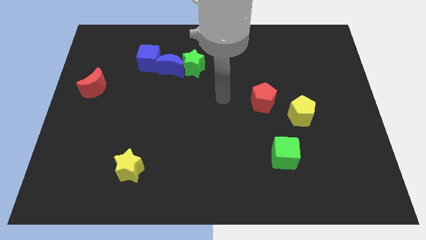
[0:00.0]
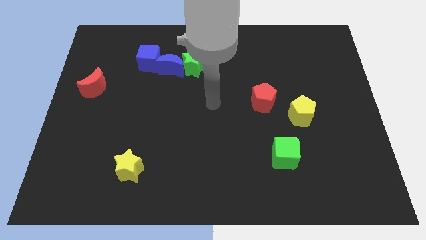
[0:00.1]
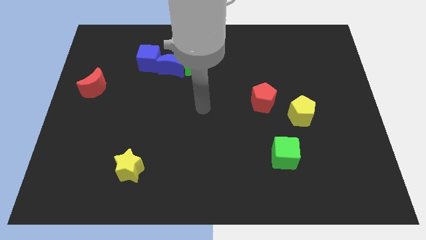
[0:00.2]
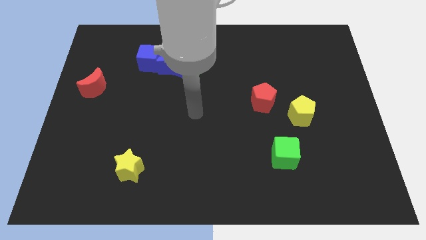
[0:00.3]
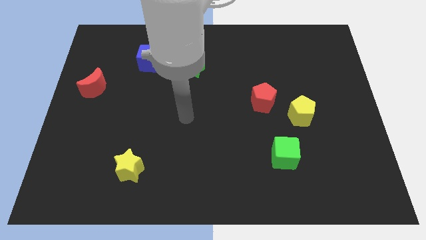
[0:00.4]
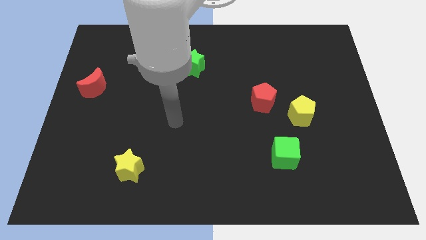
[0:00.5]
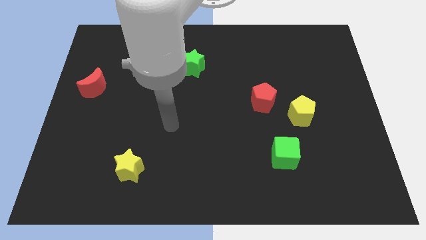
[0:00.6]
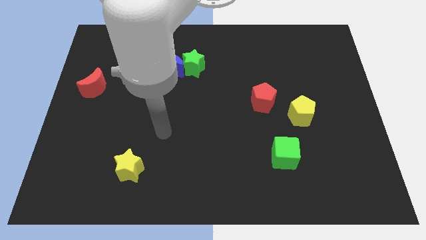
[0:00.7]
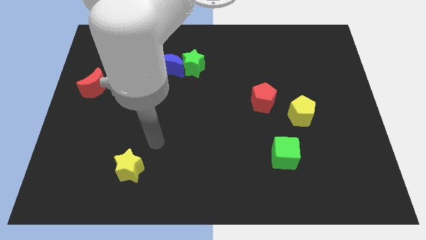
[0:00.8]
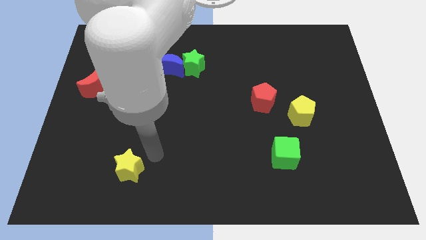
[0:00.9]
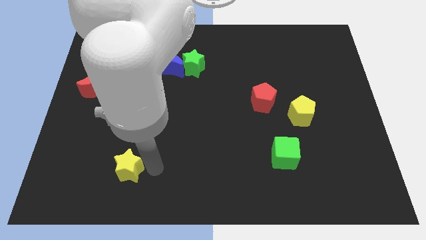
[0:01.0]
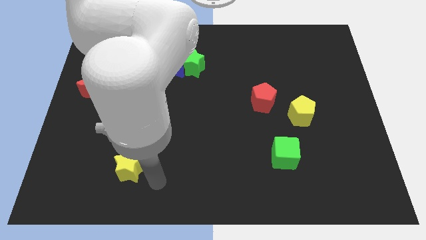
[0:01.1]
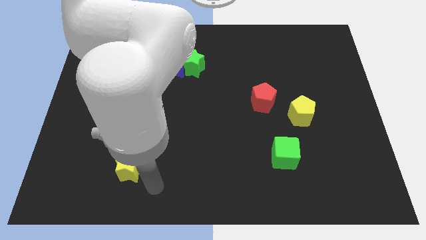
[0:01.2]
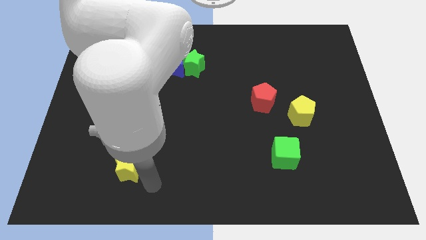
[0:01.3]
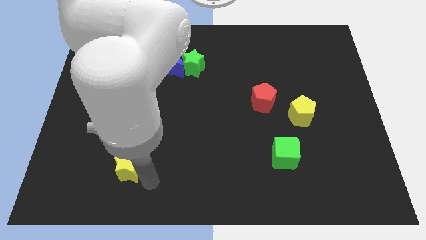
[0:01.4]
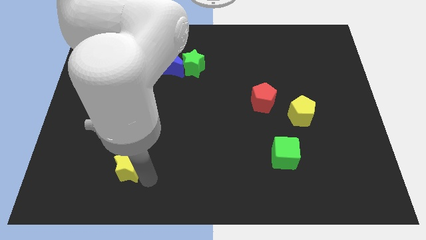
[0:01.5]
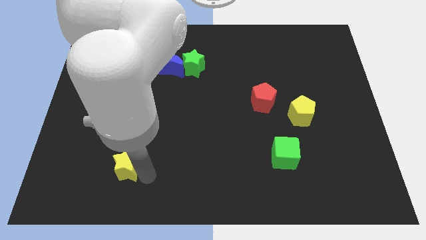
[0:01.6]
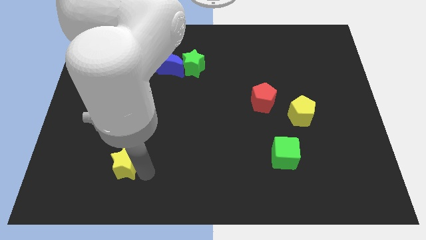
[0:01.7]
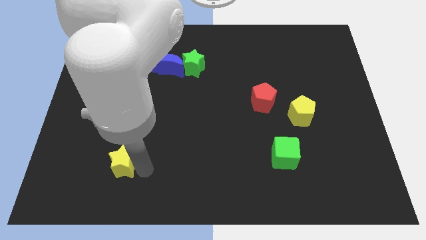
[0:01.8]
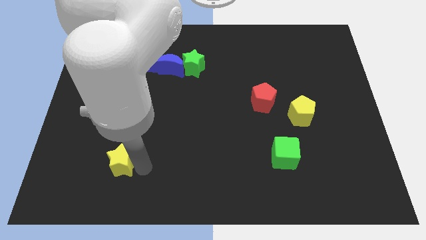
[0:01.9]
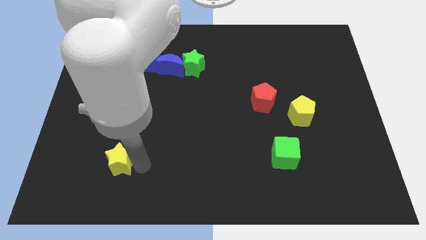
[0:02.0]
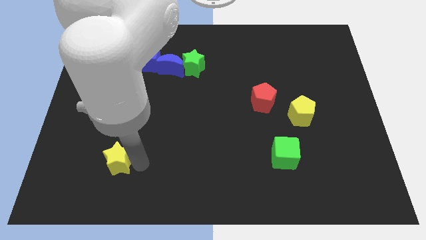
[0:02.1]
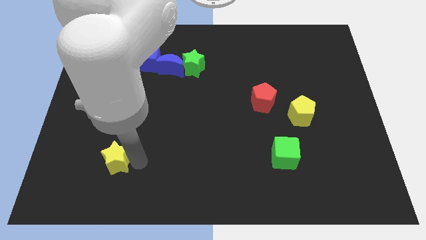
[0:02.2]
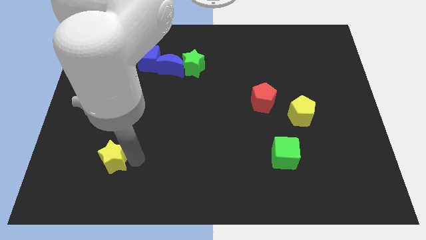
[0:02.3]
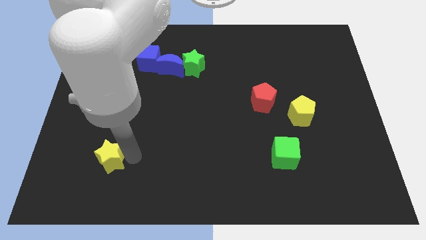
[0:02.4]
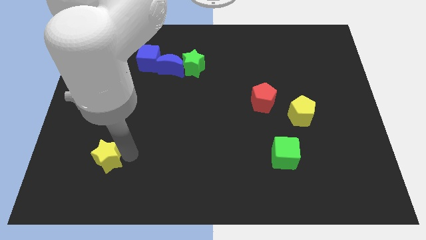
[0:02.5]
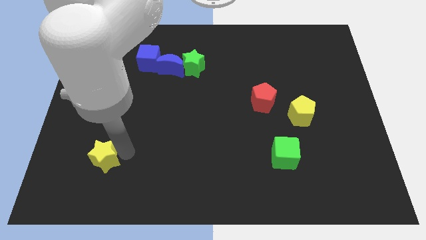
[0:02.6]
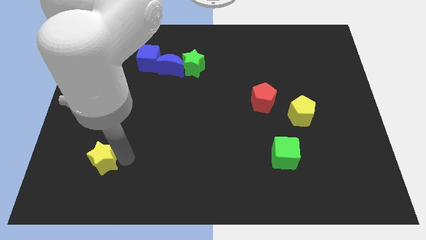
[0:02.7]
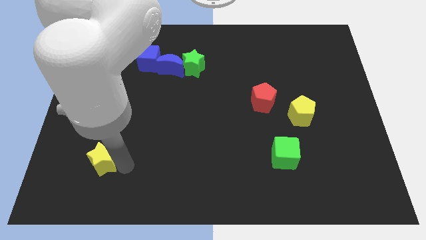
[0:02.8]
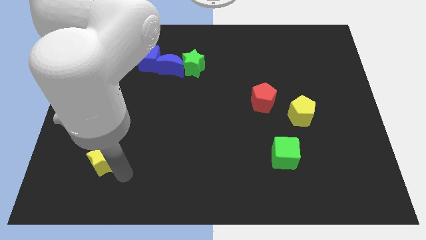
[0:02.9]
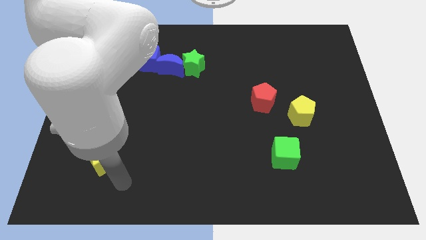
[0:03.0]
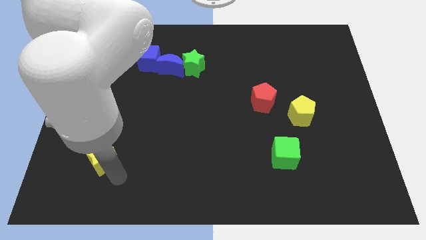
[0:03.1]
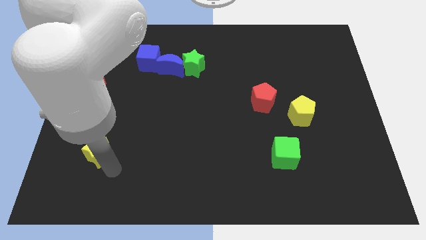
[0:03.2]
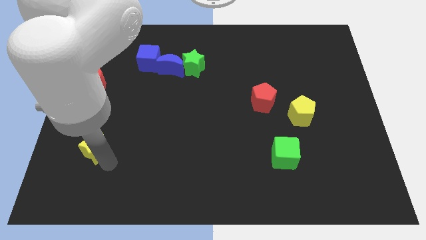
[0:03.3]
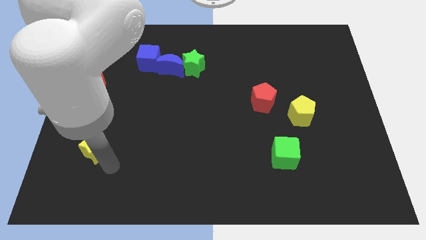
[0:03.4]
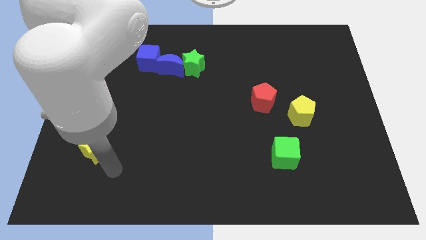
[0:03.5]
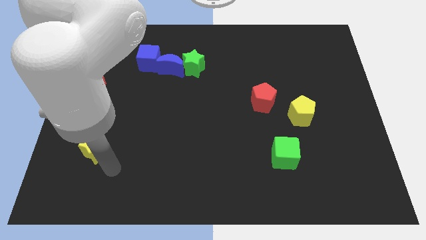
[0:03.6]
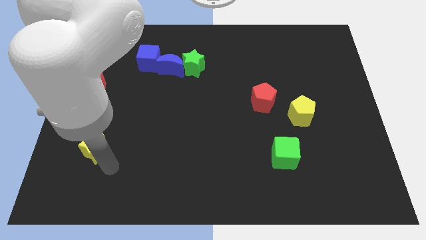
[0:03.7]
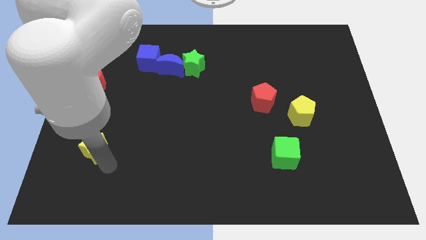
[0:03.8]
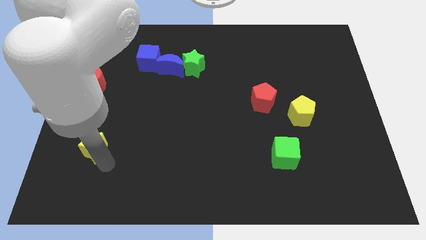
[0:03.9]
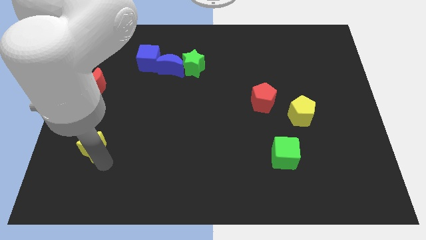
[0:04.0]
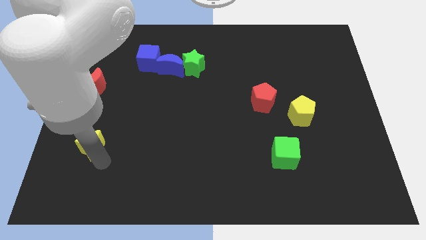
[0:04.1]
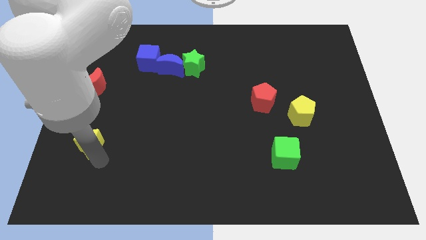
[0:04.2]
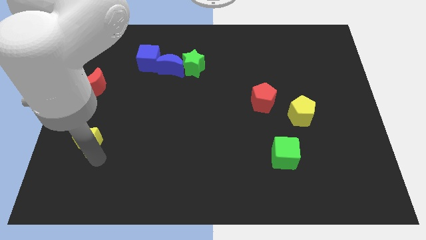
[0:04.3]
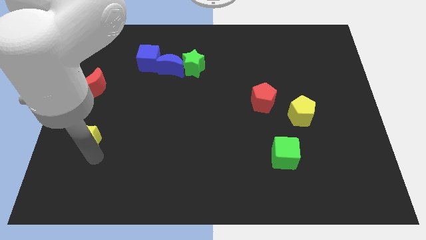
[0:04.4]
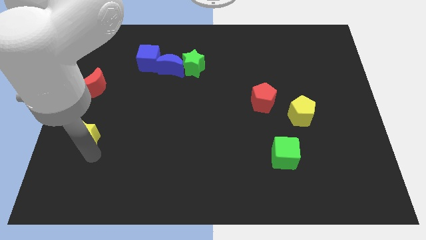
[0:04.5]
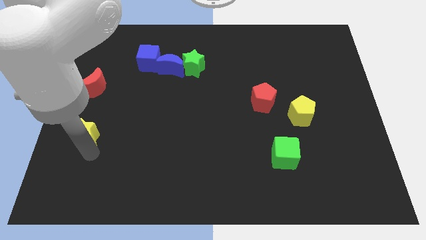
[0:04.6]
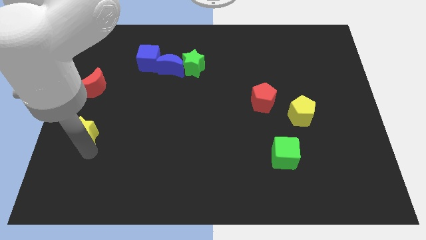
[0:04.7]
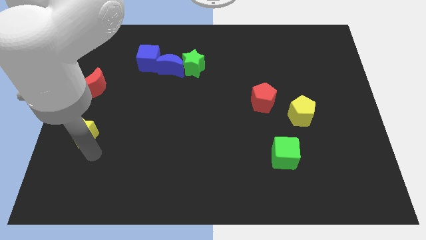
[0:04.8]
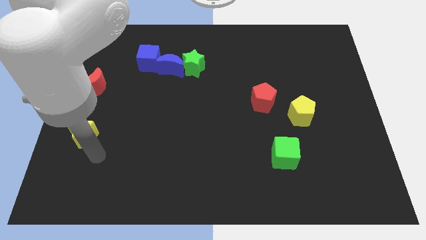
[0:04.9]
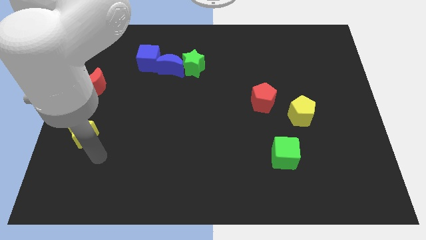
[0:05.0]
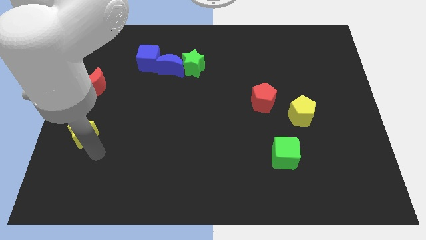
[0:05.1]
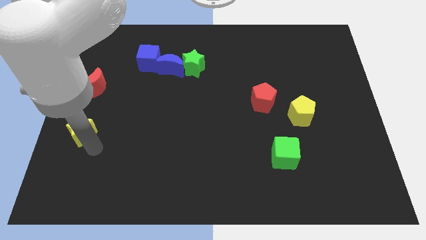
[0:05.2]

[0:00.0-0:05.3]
move the yellow star to the center left

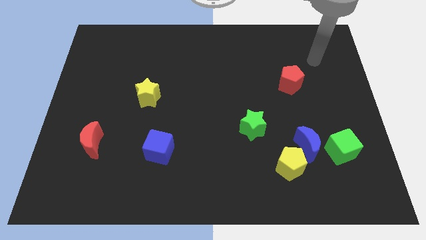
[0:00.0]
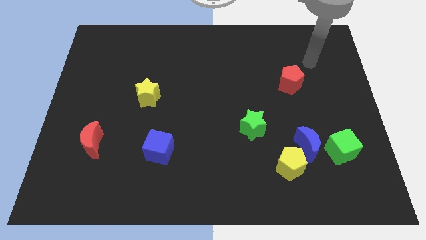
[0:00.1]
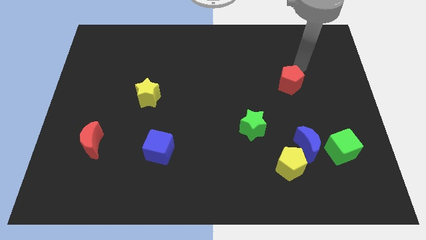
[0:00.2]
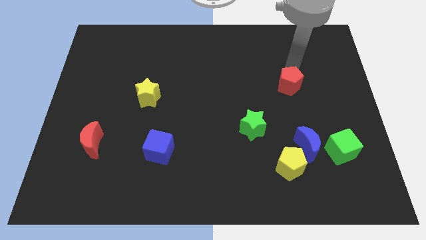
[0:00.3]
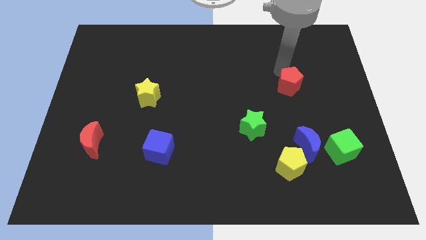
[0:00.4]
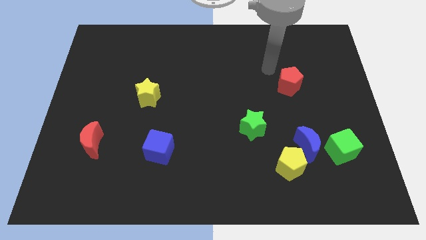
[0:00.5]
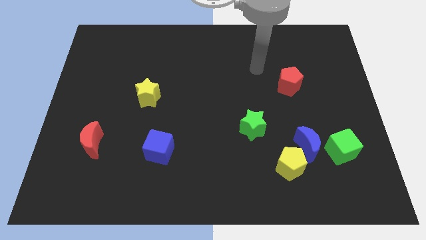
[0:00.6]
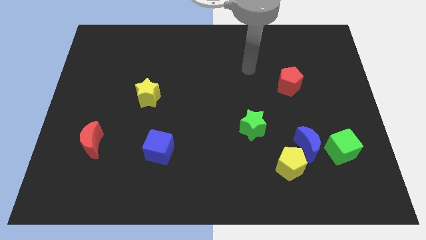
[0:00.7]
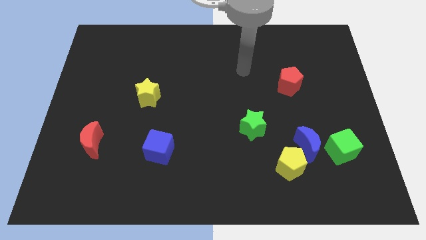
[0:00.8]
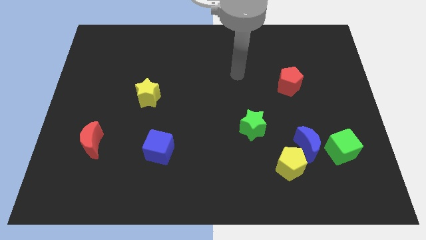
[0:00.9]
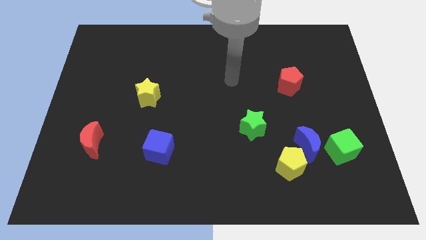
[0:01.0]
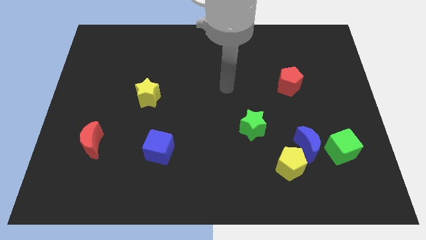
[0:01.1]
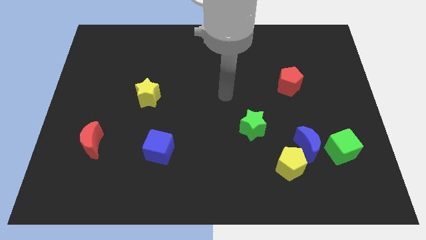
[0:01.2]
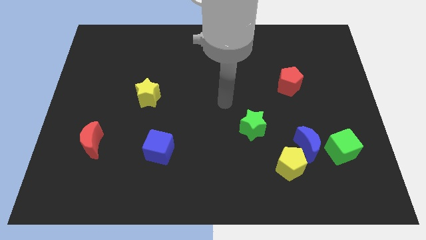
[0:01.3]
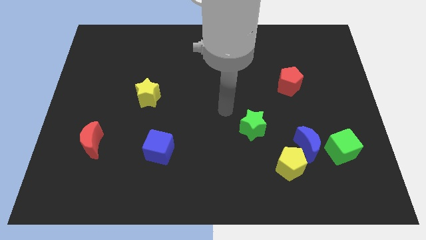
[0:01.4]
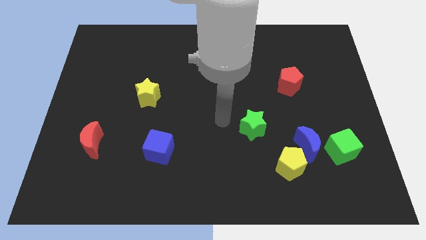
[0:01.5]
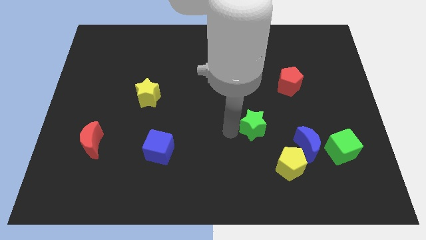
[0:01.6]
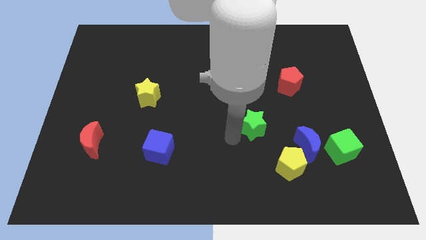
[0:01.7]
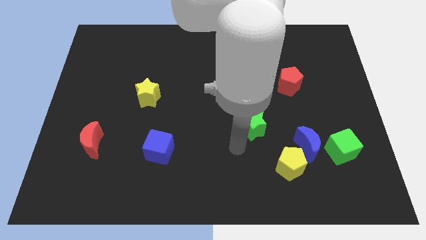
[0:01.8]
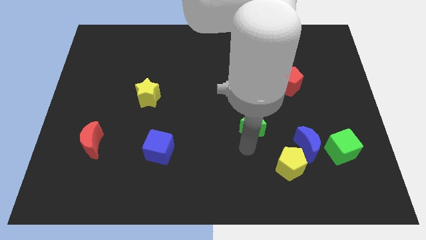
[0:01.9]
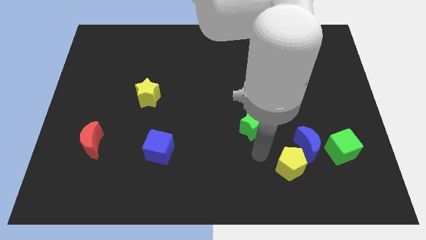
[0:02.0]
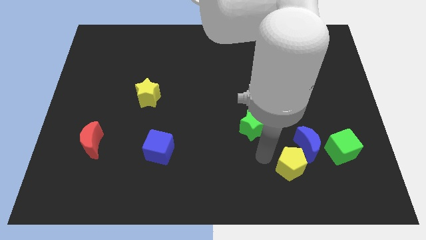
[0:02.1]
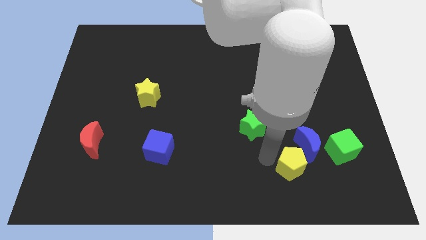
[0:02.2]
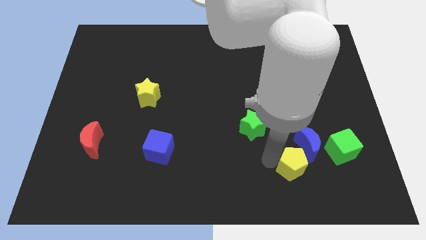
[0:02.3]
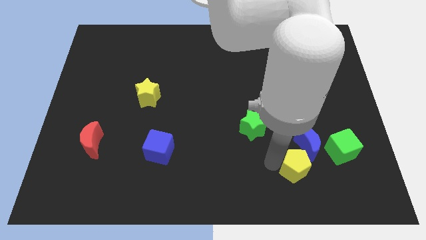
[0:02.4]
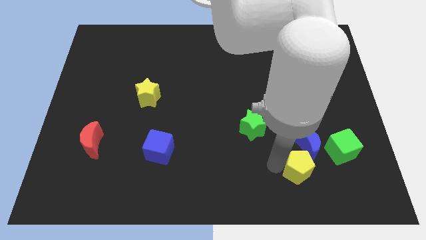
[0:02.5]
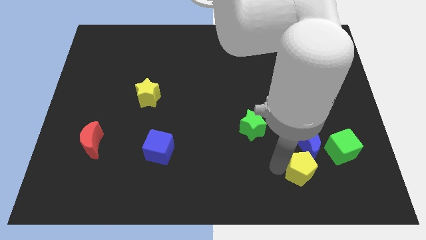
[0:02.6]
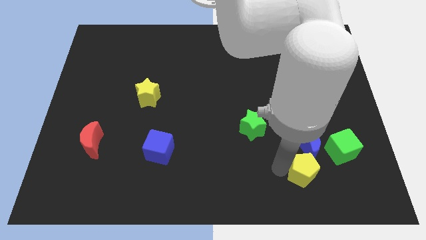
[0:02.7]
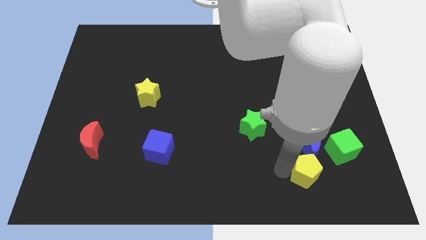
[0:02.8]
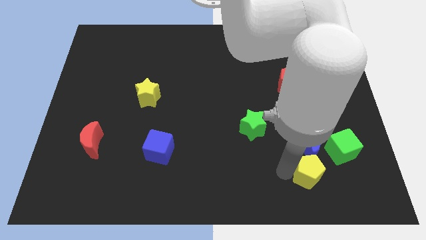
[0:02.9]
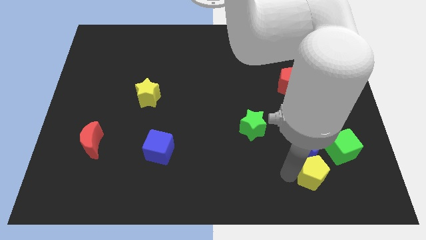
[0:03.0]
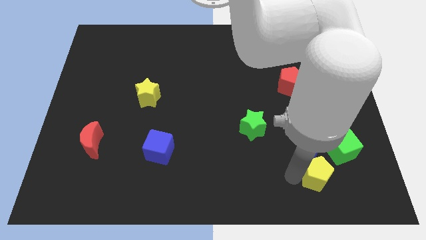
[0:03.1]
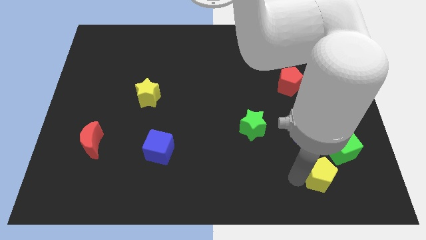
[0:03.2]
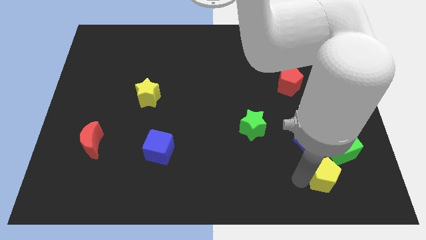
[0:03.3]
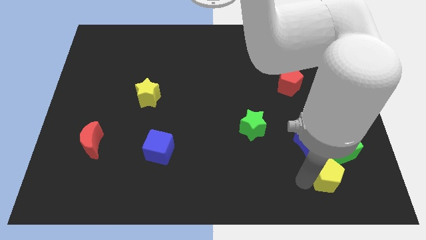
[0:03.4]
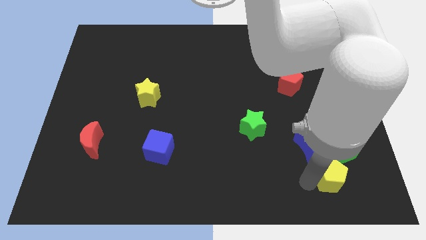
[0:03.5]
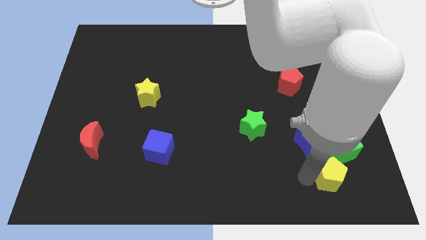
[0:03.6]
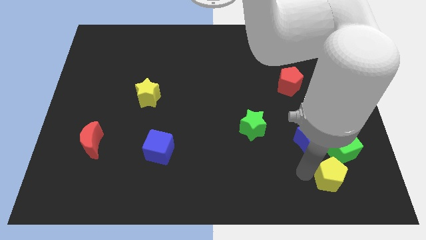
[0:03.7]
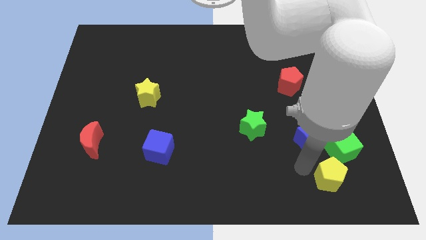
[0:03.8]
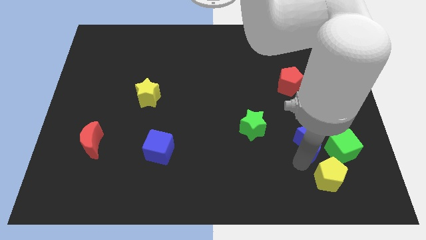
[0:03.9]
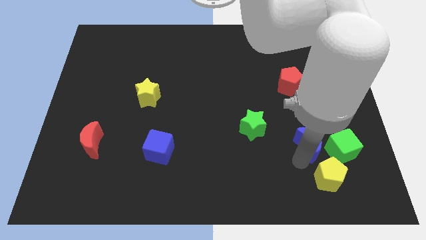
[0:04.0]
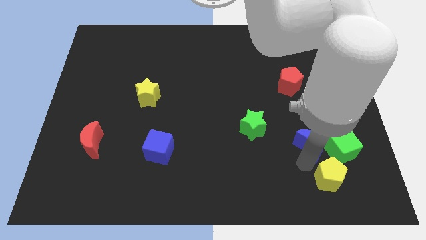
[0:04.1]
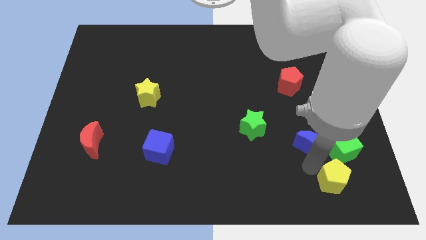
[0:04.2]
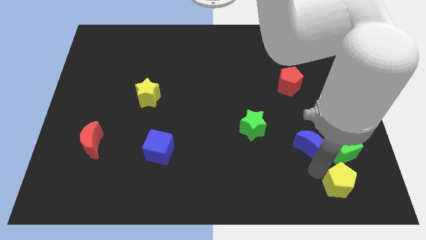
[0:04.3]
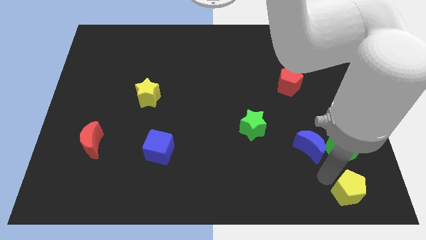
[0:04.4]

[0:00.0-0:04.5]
move the yellow pentagon to the bottom right of the board
